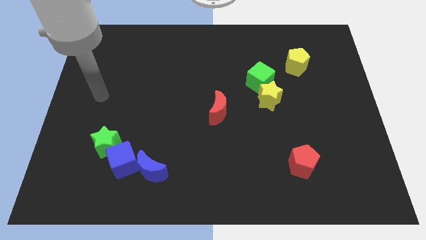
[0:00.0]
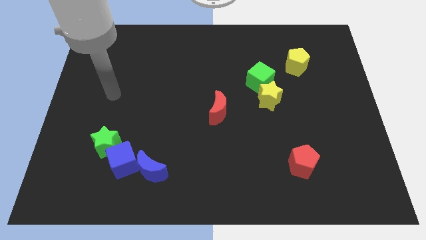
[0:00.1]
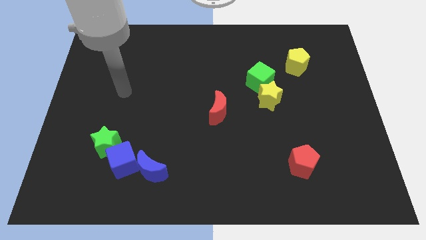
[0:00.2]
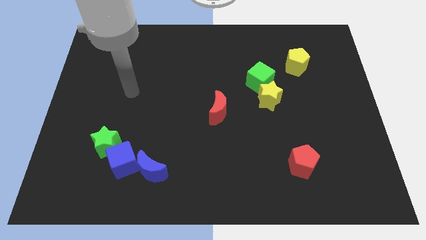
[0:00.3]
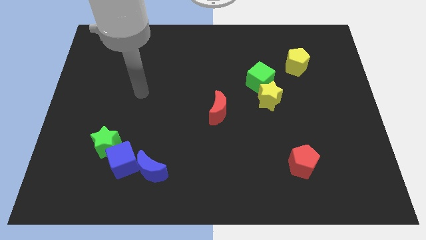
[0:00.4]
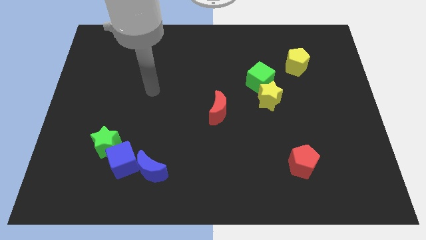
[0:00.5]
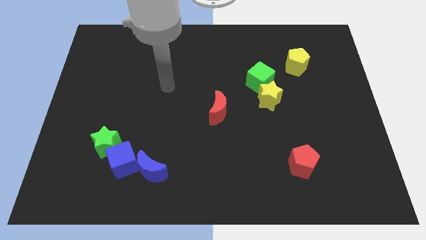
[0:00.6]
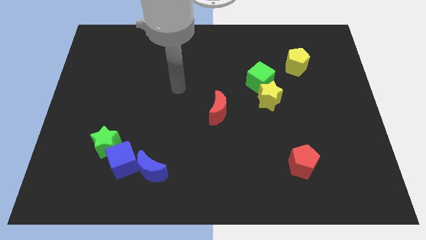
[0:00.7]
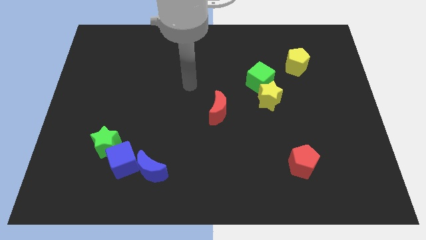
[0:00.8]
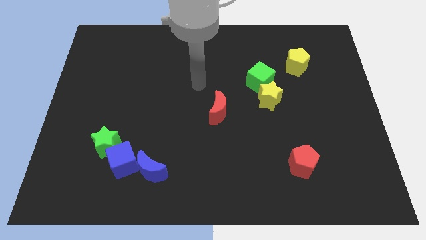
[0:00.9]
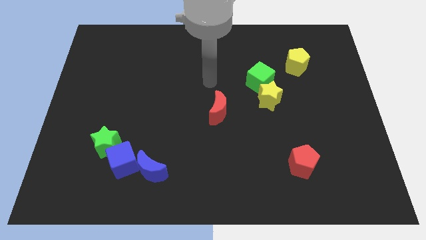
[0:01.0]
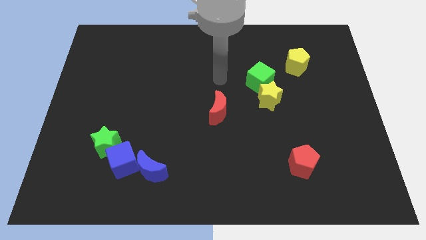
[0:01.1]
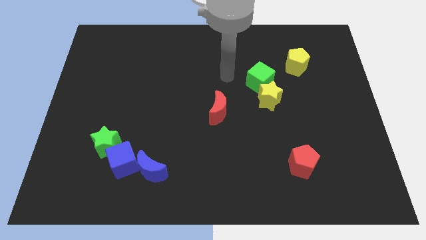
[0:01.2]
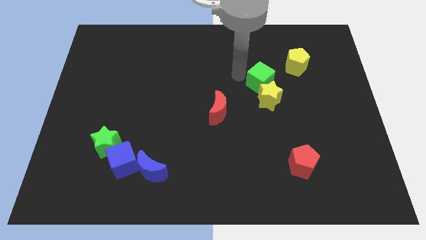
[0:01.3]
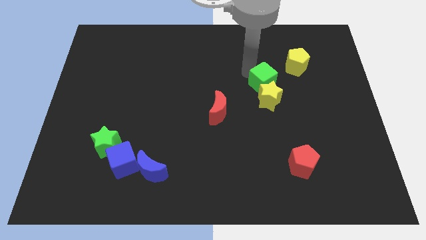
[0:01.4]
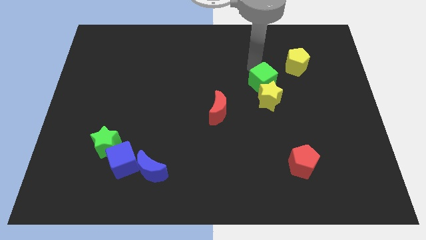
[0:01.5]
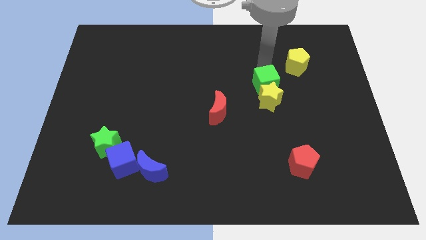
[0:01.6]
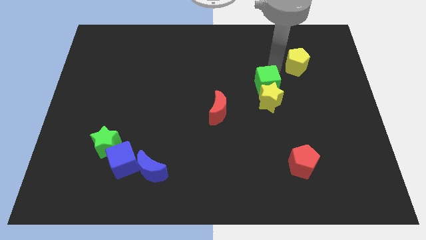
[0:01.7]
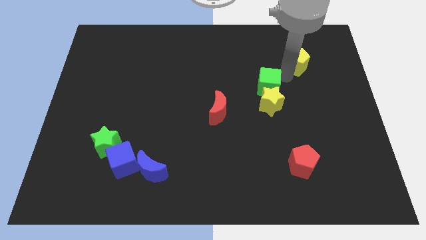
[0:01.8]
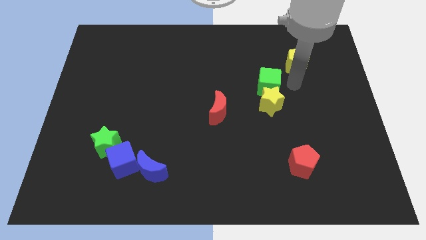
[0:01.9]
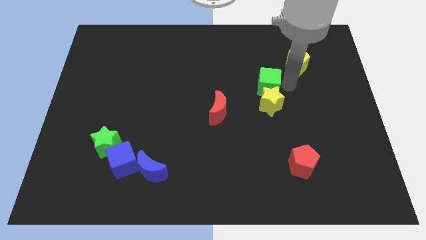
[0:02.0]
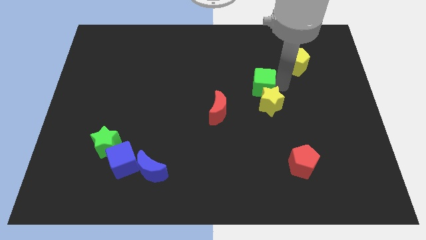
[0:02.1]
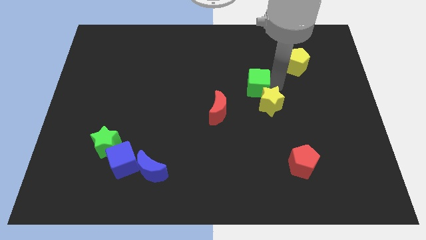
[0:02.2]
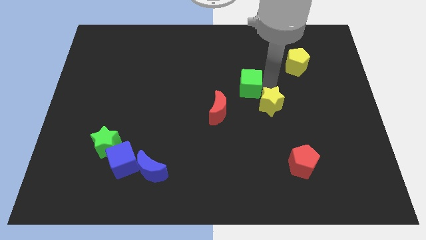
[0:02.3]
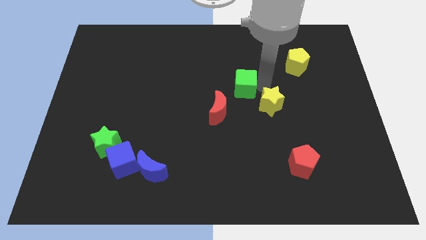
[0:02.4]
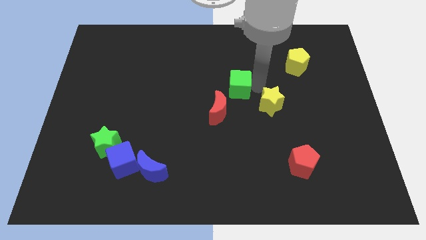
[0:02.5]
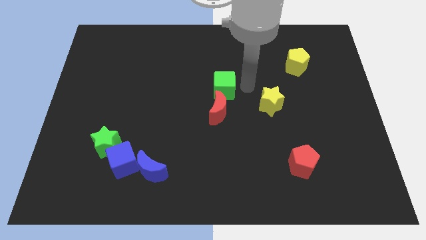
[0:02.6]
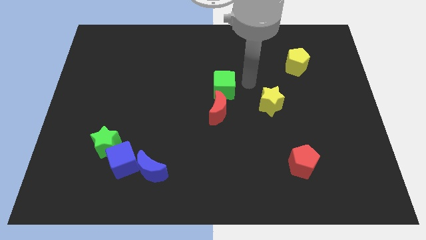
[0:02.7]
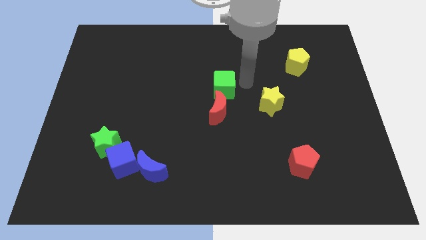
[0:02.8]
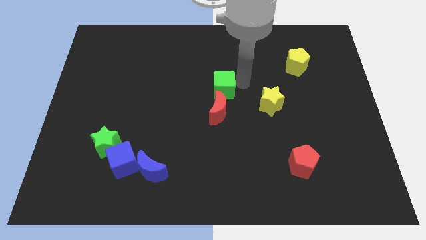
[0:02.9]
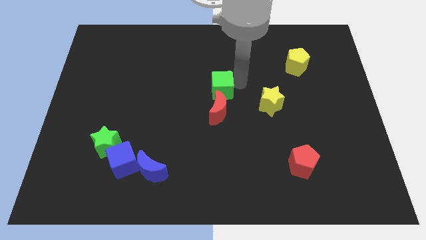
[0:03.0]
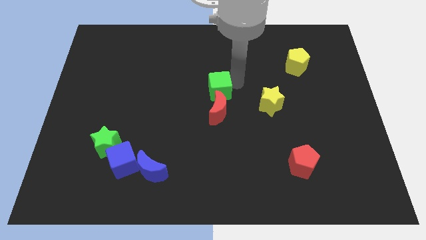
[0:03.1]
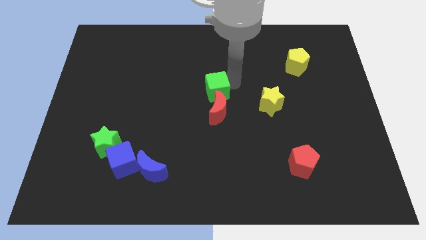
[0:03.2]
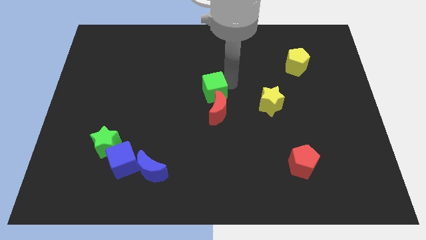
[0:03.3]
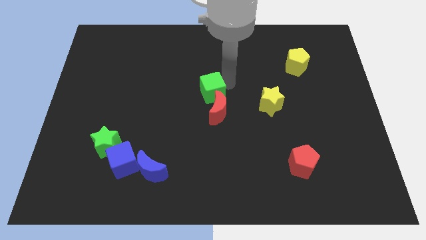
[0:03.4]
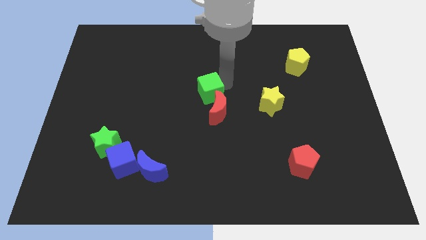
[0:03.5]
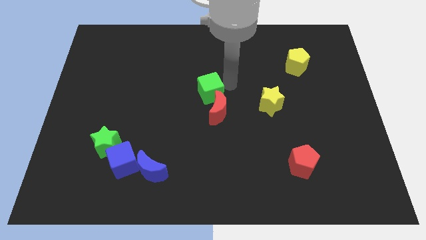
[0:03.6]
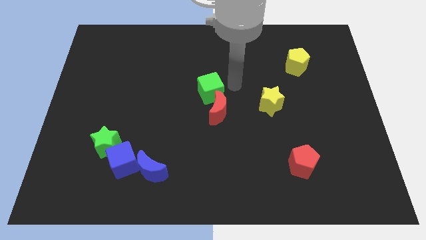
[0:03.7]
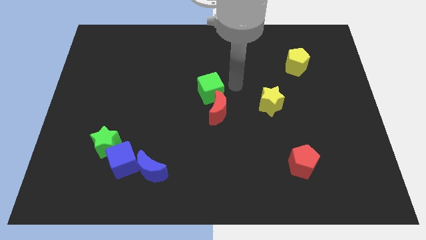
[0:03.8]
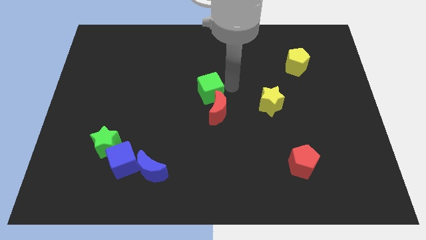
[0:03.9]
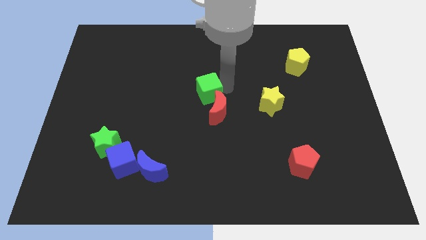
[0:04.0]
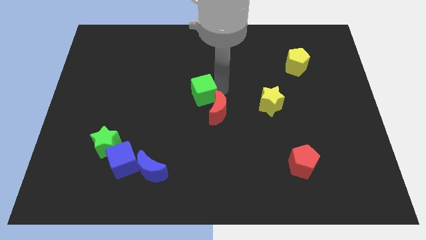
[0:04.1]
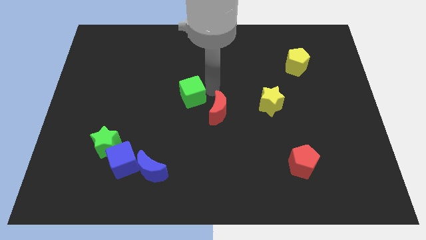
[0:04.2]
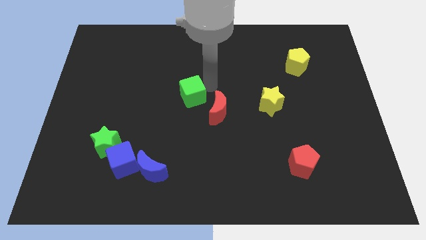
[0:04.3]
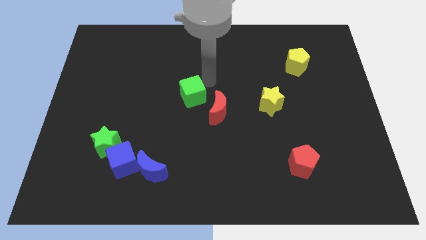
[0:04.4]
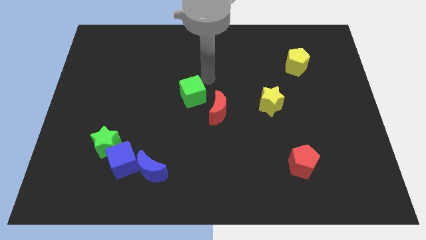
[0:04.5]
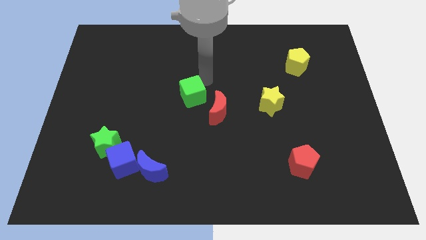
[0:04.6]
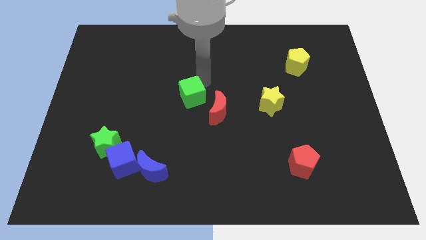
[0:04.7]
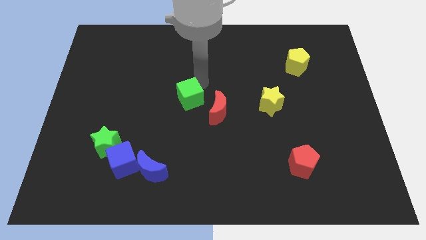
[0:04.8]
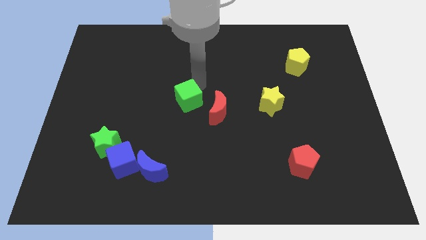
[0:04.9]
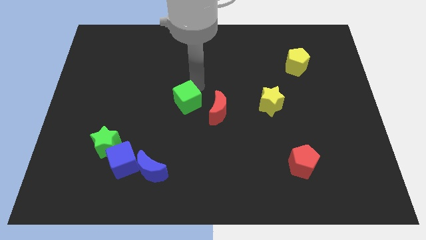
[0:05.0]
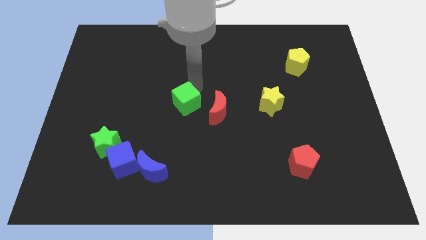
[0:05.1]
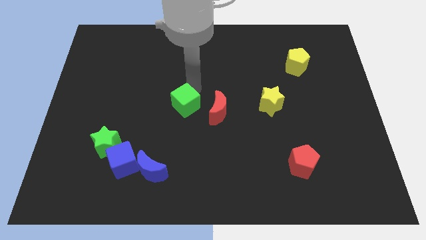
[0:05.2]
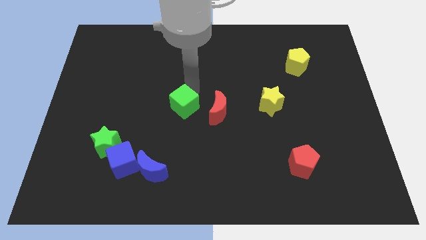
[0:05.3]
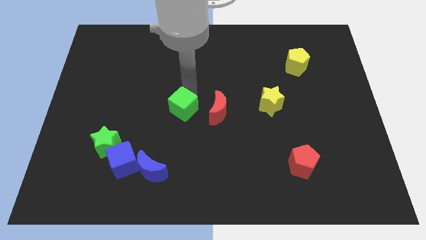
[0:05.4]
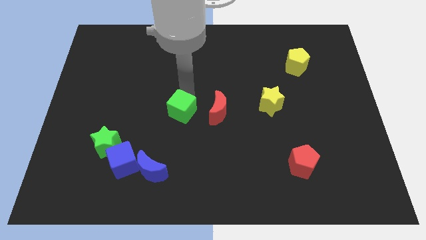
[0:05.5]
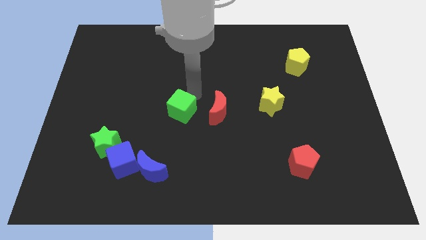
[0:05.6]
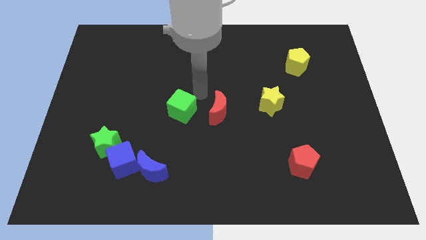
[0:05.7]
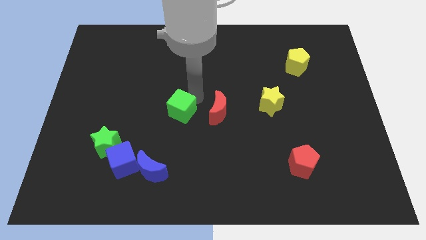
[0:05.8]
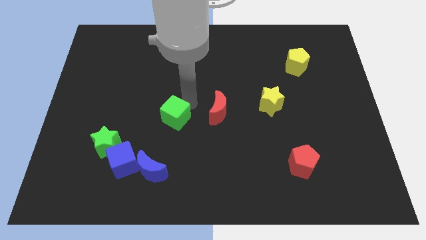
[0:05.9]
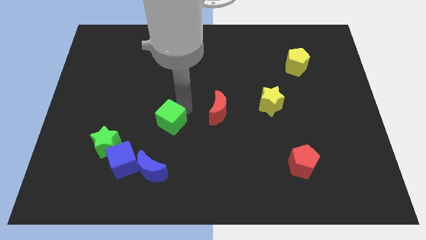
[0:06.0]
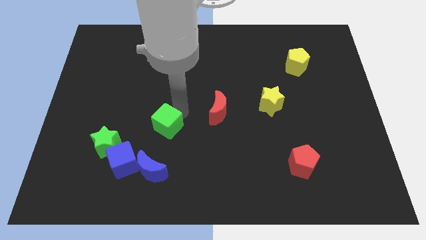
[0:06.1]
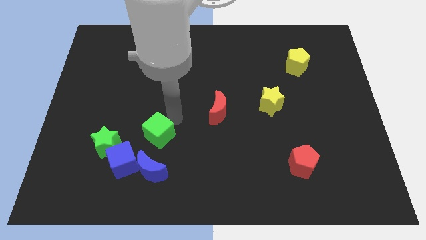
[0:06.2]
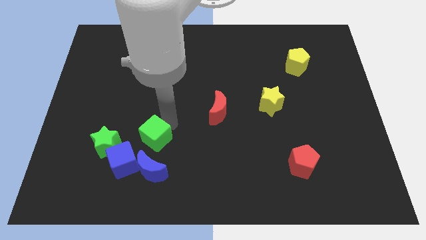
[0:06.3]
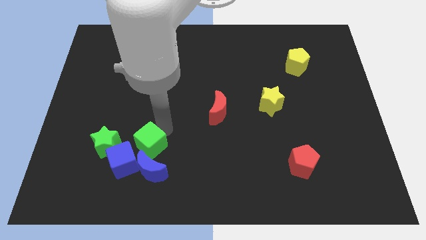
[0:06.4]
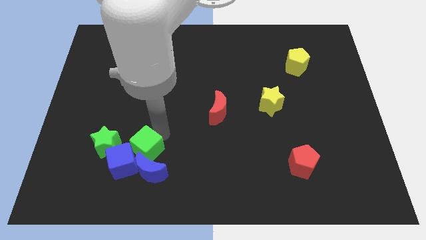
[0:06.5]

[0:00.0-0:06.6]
move the green cube close to the blue cube
